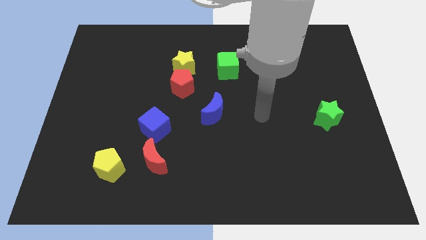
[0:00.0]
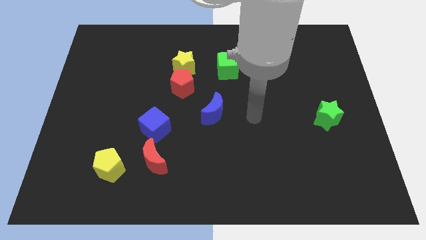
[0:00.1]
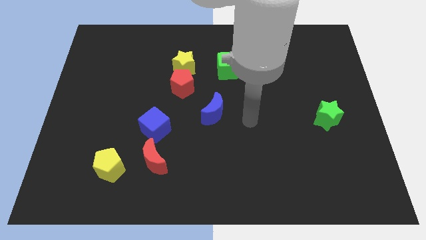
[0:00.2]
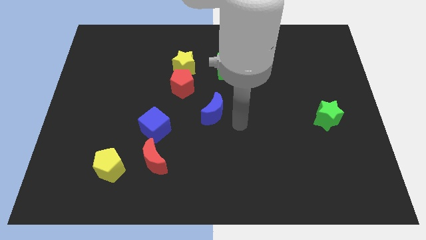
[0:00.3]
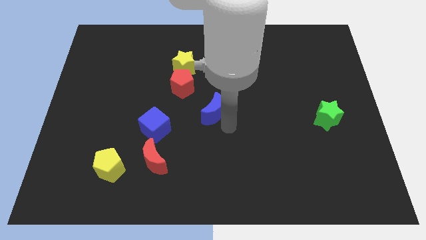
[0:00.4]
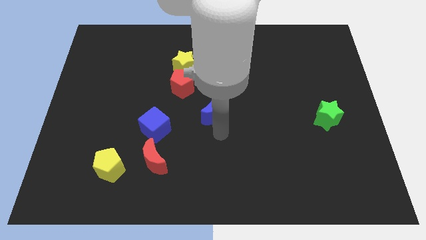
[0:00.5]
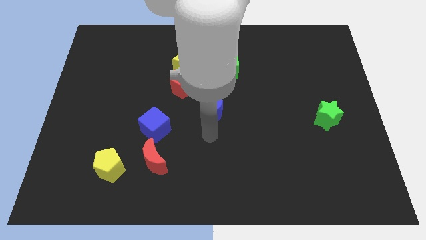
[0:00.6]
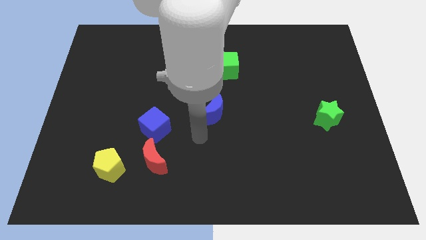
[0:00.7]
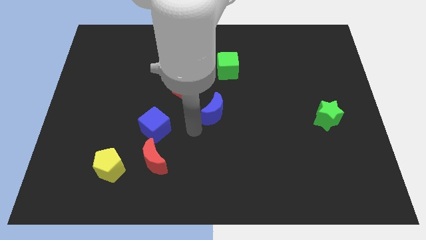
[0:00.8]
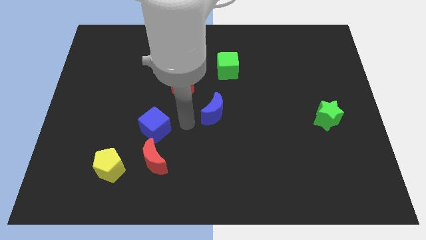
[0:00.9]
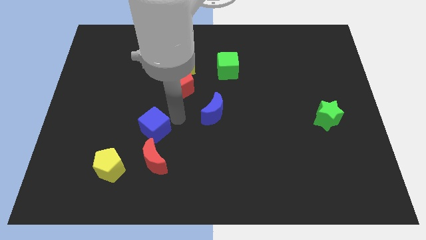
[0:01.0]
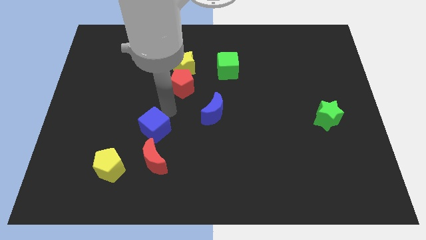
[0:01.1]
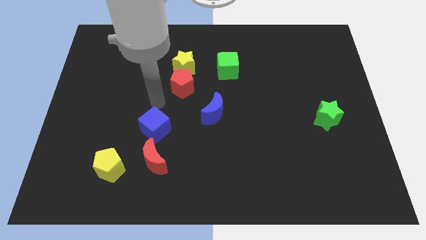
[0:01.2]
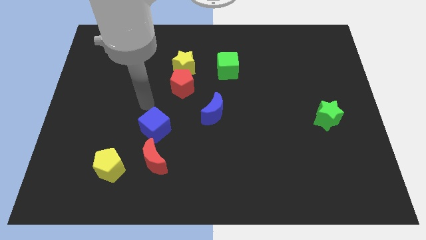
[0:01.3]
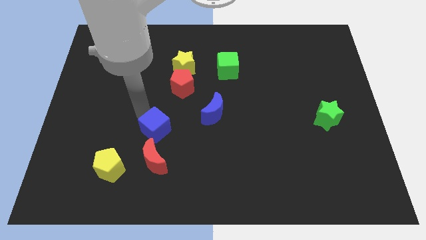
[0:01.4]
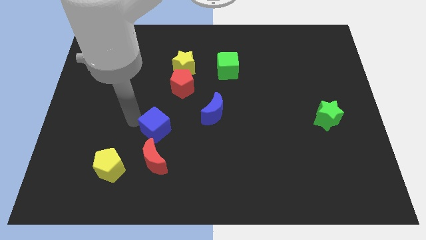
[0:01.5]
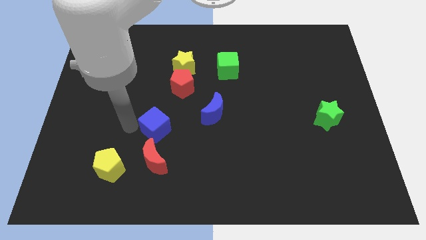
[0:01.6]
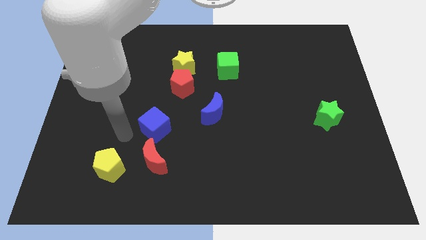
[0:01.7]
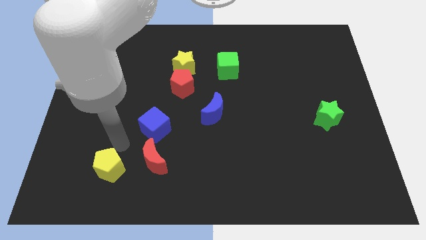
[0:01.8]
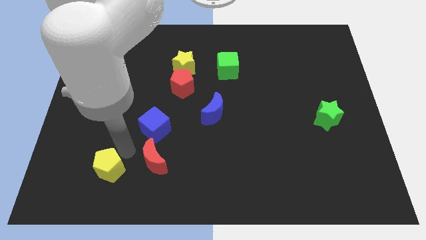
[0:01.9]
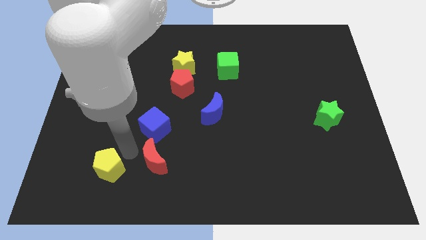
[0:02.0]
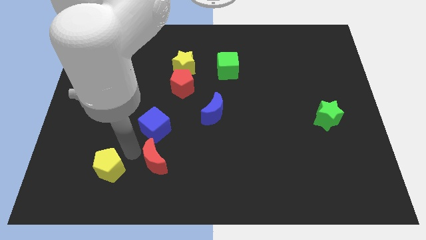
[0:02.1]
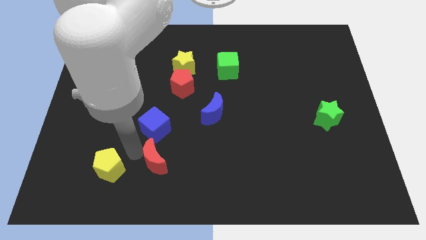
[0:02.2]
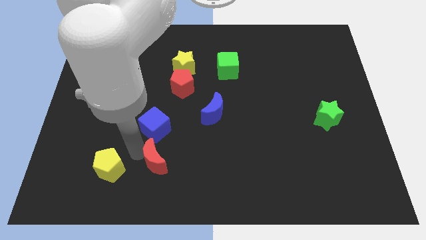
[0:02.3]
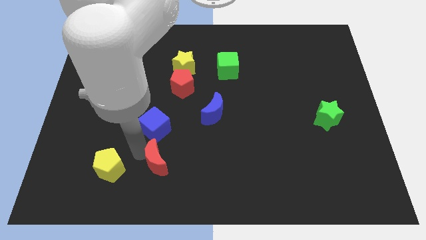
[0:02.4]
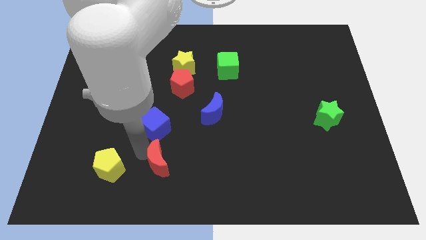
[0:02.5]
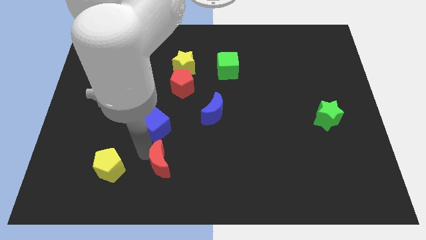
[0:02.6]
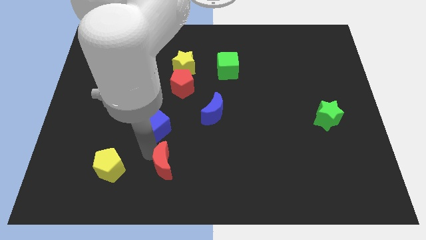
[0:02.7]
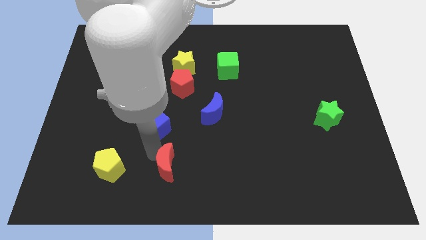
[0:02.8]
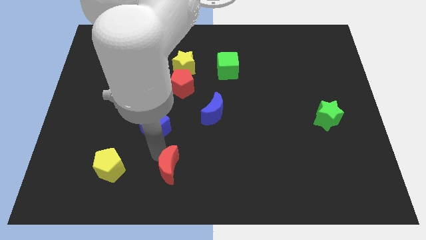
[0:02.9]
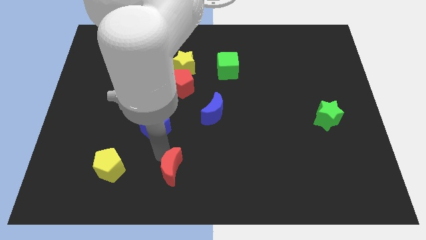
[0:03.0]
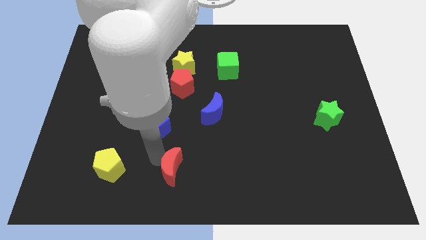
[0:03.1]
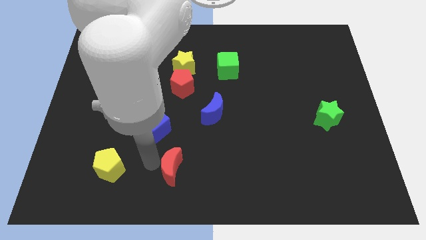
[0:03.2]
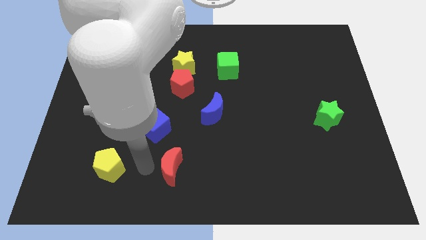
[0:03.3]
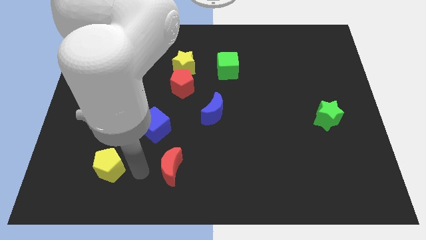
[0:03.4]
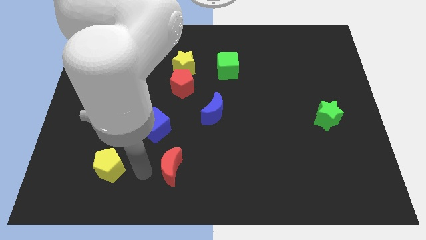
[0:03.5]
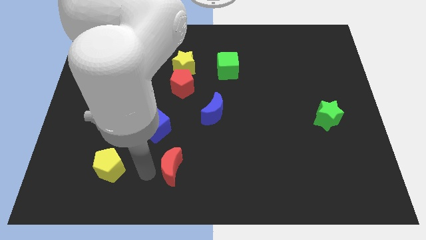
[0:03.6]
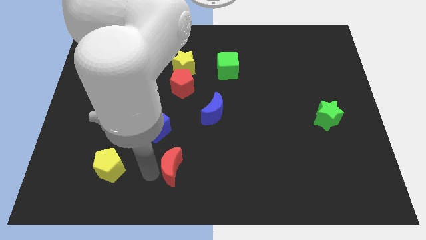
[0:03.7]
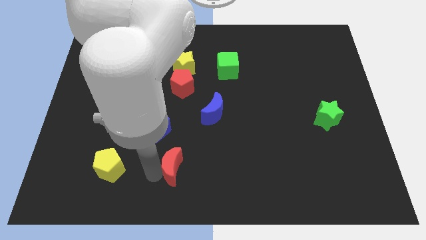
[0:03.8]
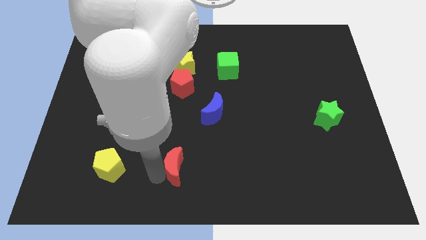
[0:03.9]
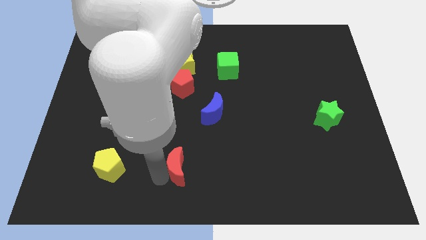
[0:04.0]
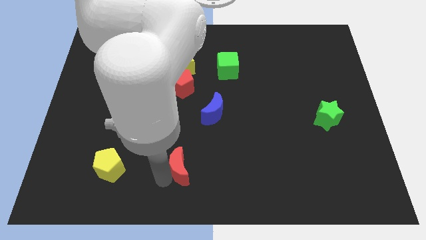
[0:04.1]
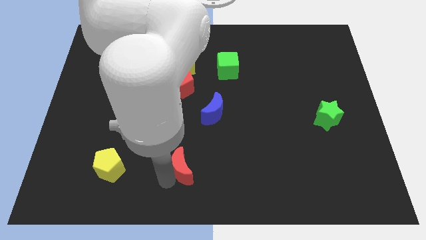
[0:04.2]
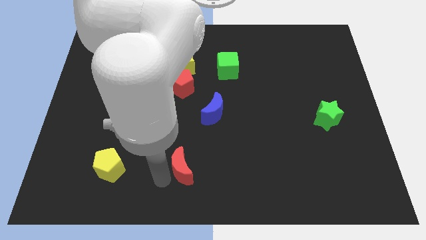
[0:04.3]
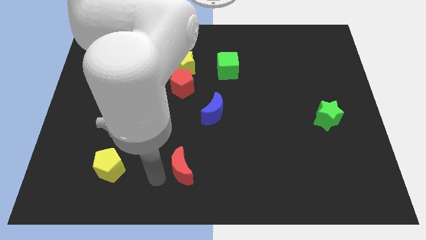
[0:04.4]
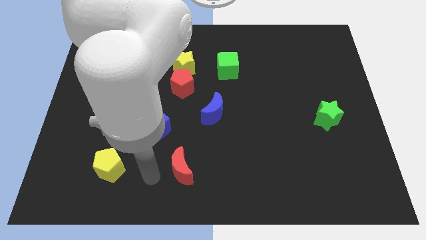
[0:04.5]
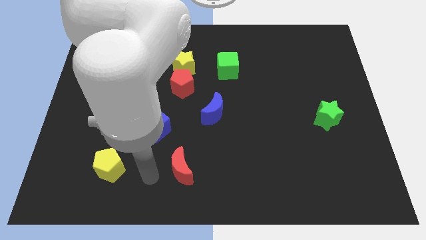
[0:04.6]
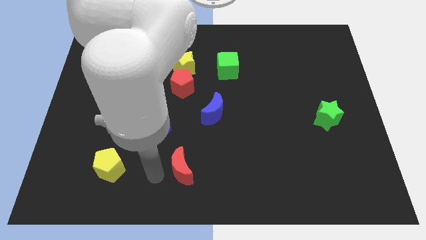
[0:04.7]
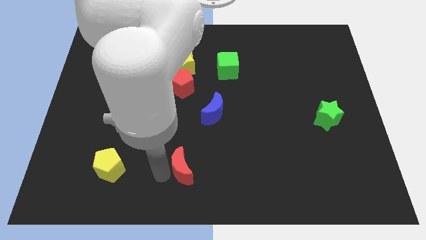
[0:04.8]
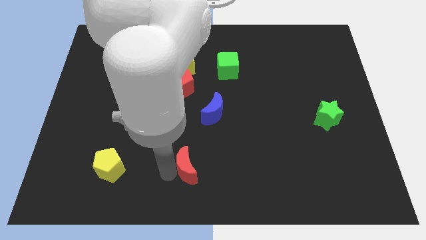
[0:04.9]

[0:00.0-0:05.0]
move the red moon right a little bit

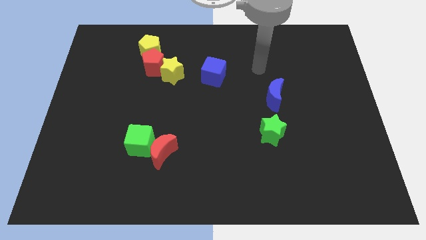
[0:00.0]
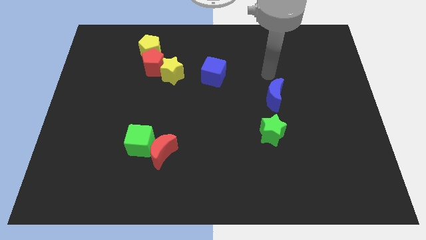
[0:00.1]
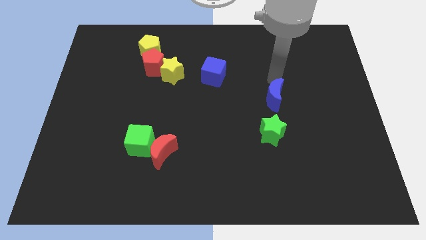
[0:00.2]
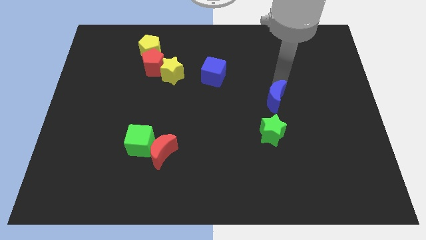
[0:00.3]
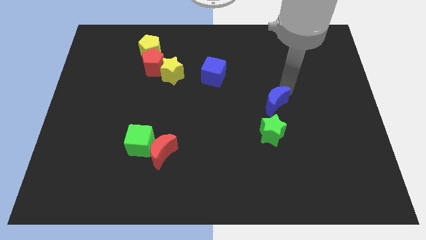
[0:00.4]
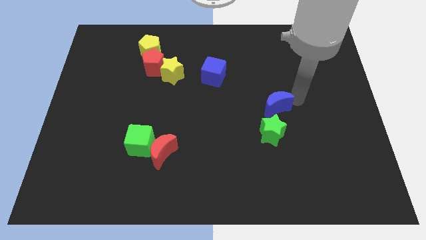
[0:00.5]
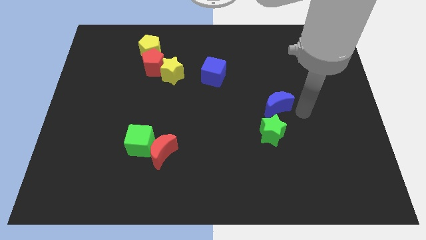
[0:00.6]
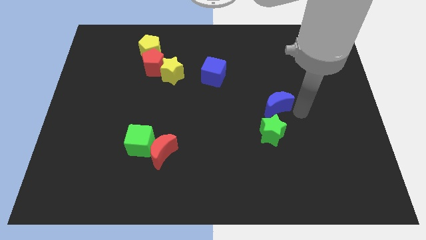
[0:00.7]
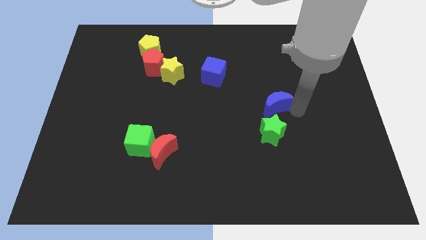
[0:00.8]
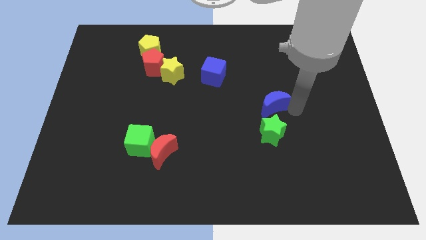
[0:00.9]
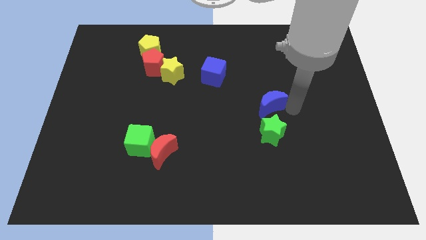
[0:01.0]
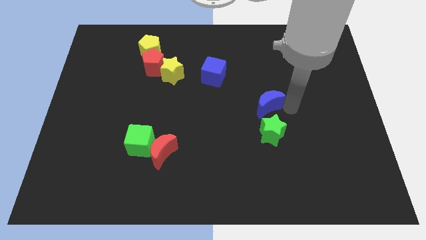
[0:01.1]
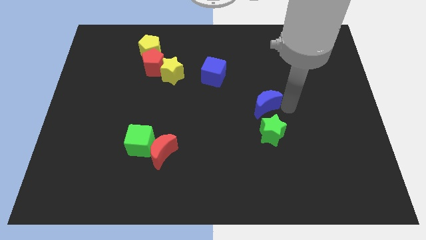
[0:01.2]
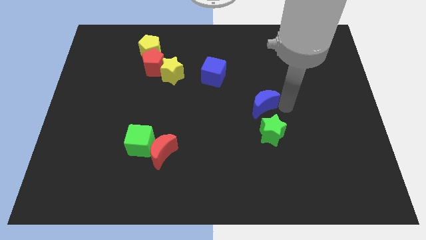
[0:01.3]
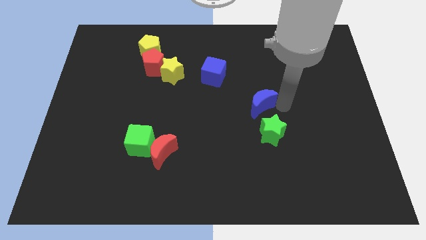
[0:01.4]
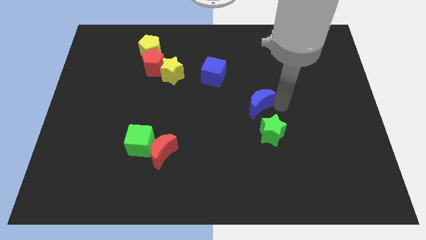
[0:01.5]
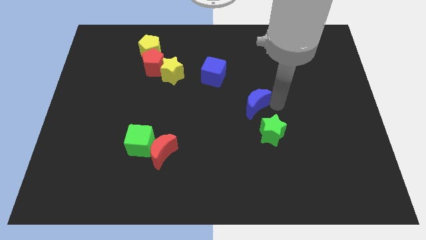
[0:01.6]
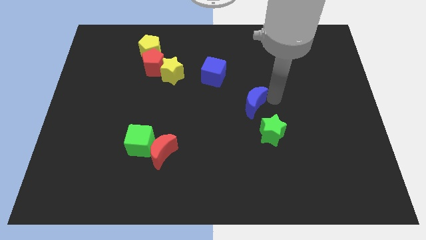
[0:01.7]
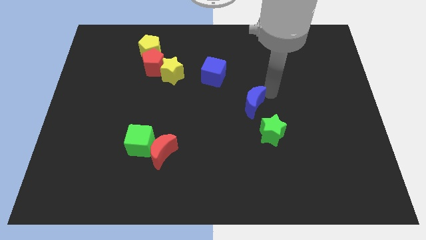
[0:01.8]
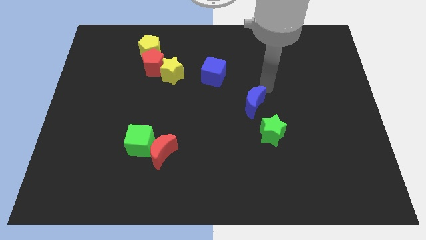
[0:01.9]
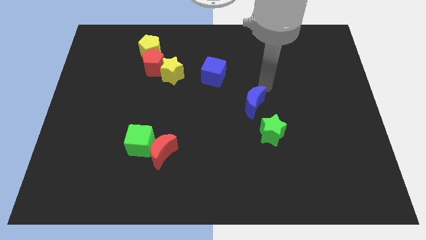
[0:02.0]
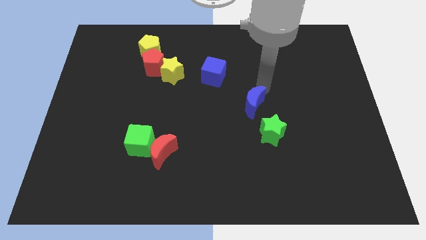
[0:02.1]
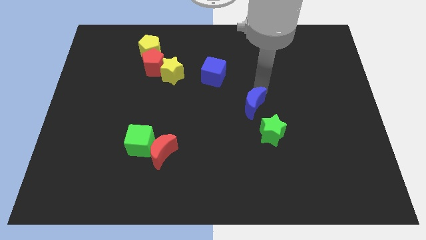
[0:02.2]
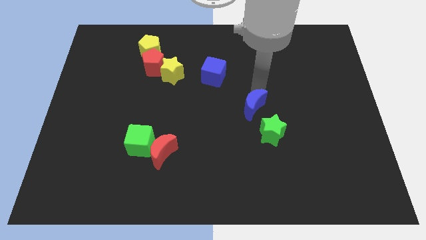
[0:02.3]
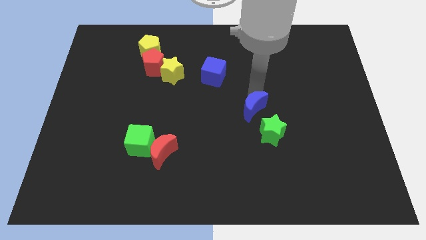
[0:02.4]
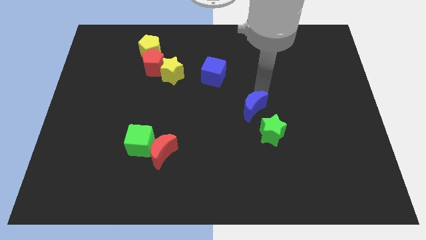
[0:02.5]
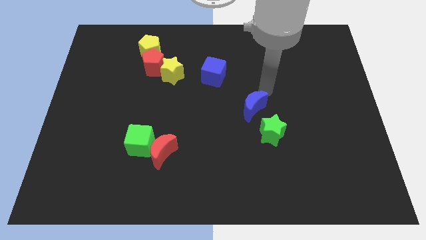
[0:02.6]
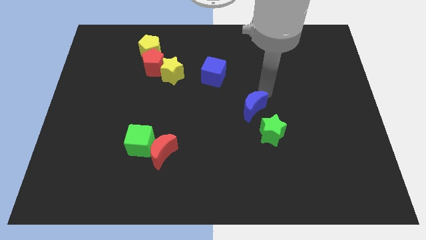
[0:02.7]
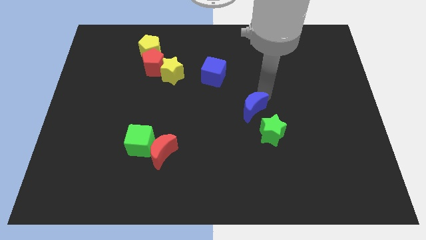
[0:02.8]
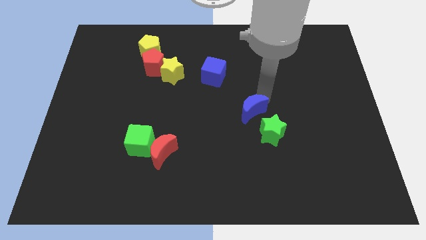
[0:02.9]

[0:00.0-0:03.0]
push the blue moon a little downwards and then left
